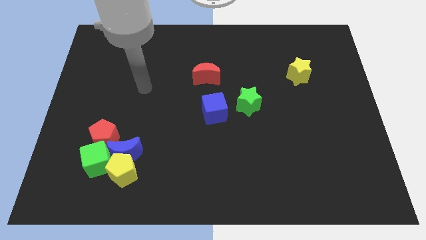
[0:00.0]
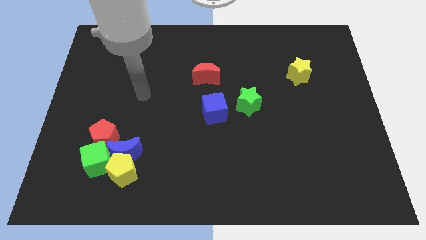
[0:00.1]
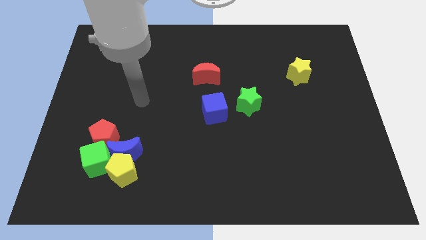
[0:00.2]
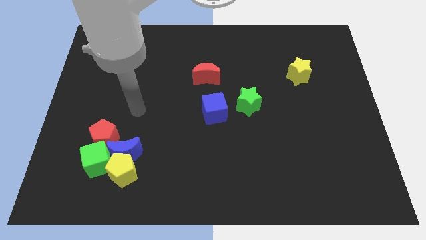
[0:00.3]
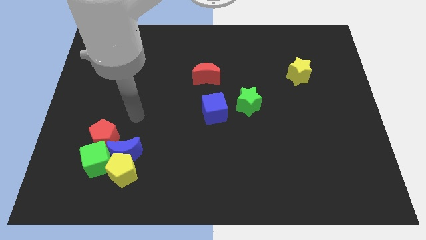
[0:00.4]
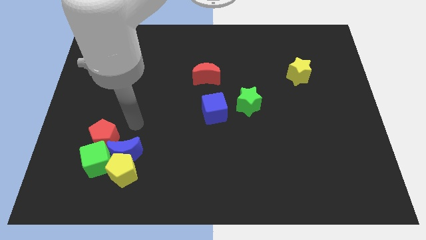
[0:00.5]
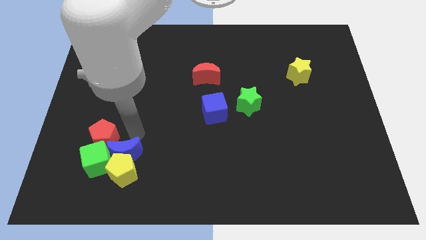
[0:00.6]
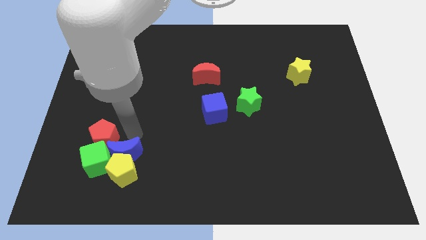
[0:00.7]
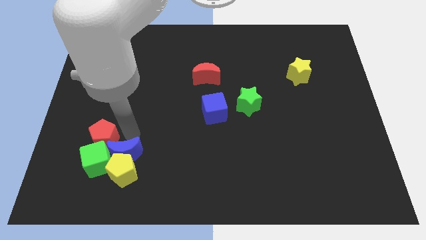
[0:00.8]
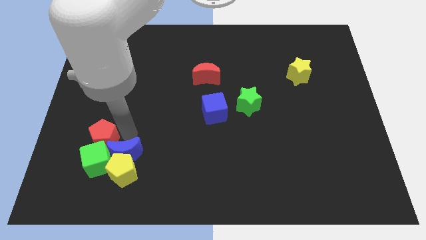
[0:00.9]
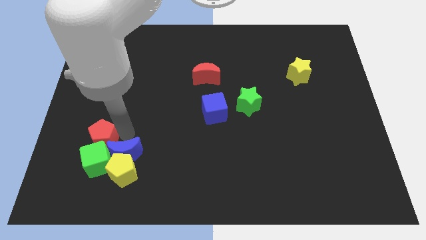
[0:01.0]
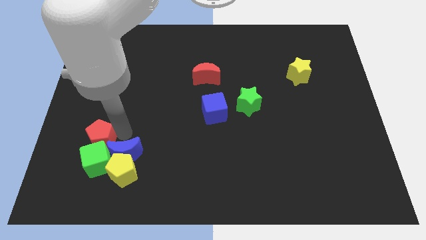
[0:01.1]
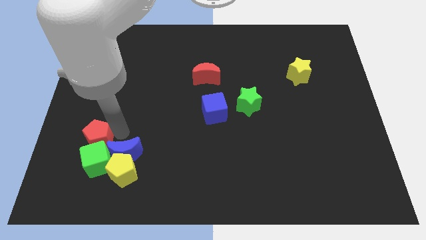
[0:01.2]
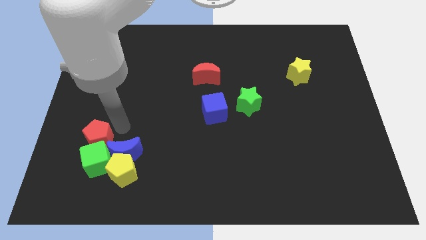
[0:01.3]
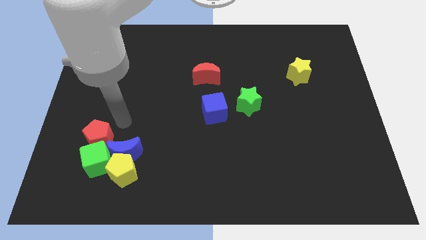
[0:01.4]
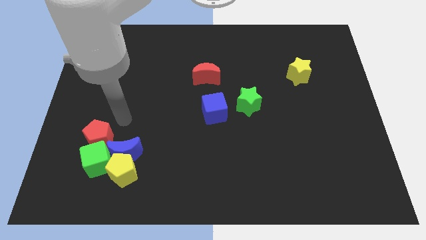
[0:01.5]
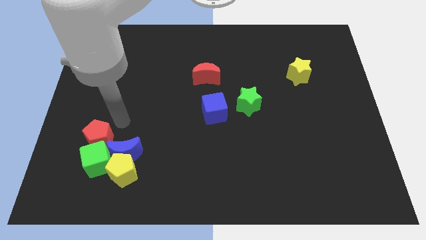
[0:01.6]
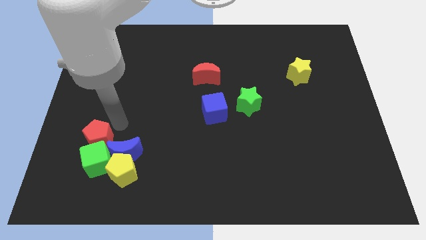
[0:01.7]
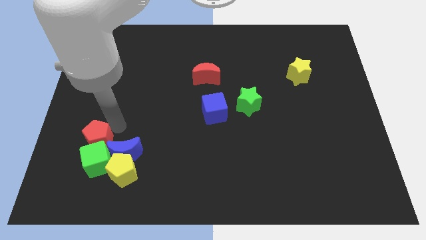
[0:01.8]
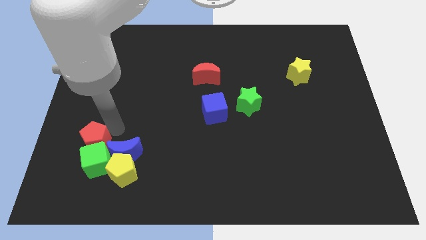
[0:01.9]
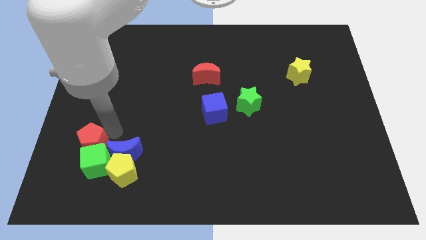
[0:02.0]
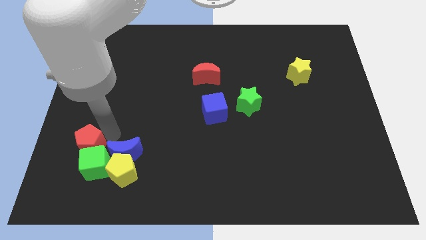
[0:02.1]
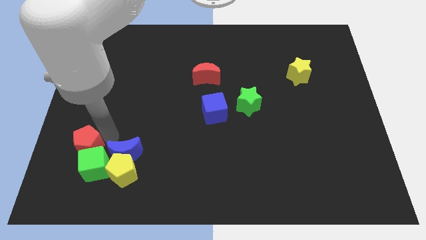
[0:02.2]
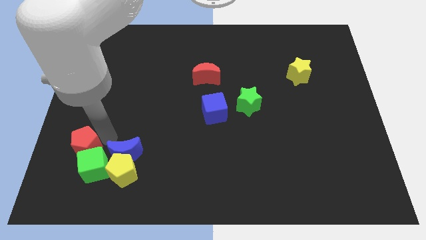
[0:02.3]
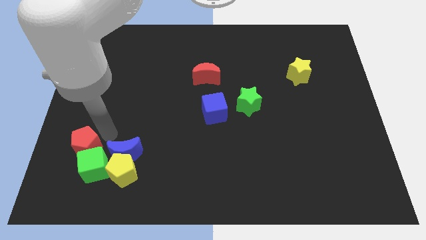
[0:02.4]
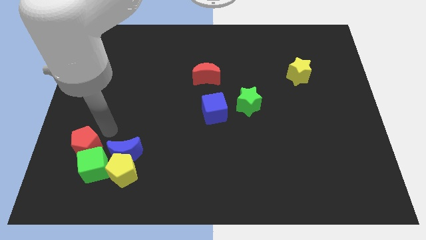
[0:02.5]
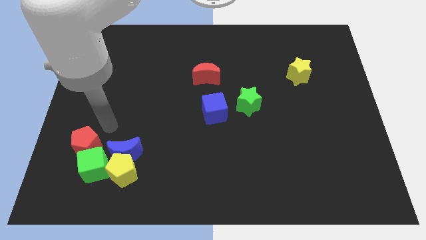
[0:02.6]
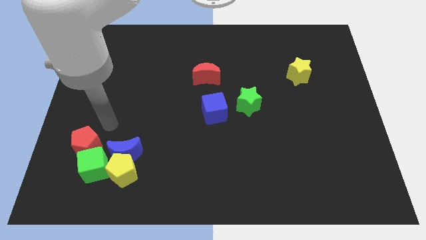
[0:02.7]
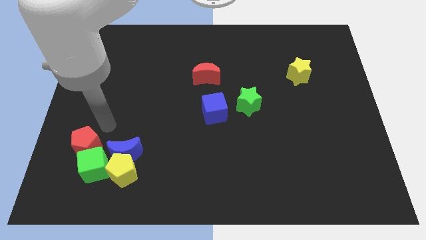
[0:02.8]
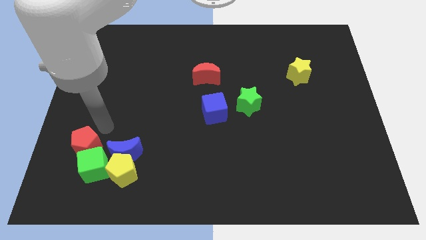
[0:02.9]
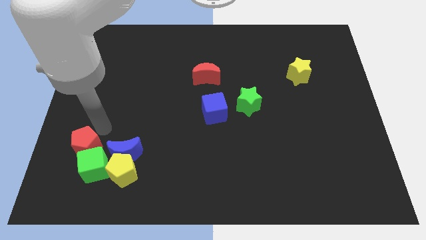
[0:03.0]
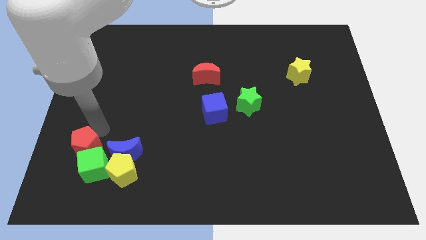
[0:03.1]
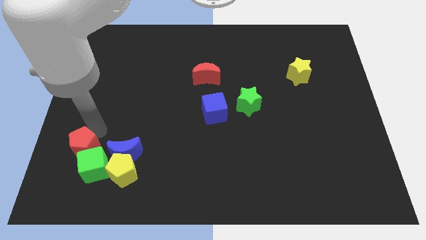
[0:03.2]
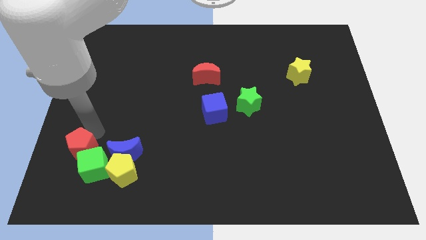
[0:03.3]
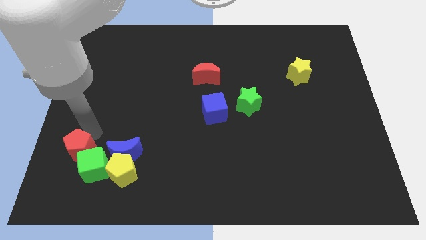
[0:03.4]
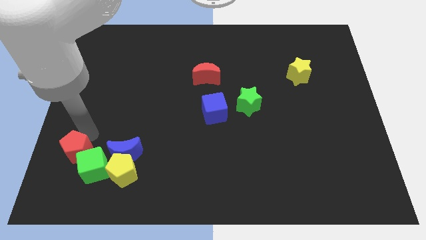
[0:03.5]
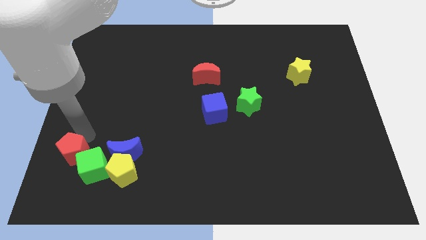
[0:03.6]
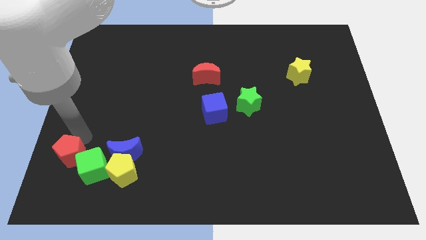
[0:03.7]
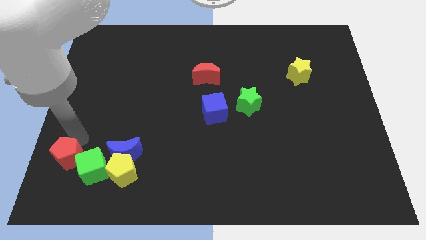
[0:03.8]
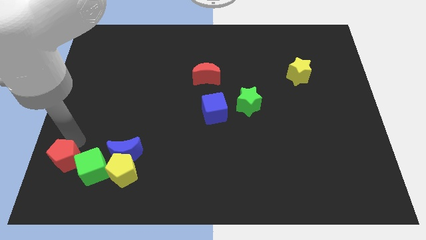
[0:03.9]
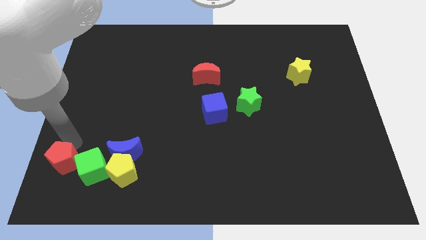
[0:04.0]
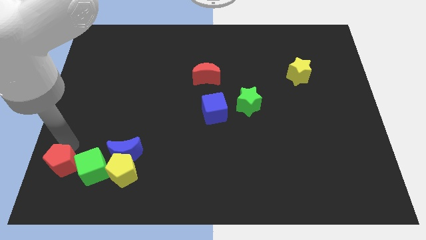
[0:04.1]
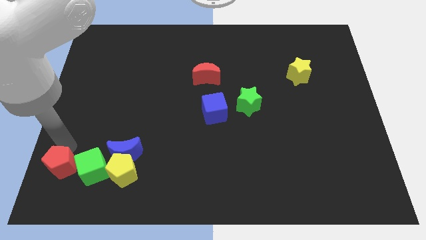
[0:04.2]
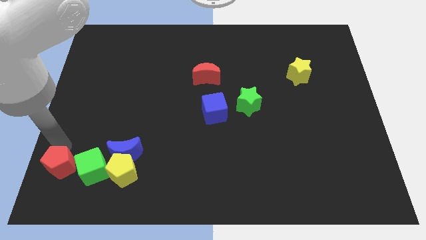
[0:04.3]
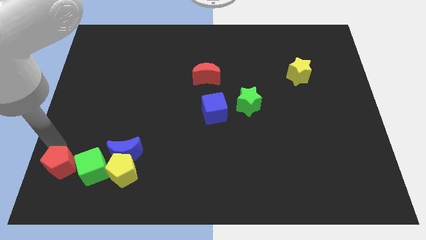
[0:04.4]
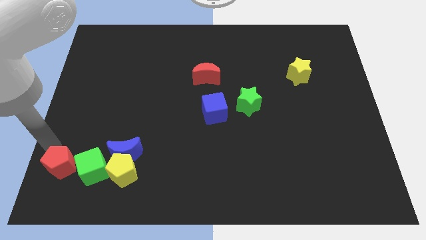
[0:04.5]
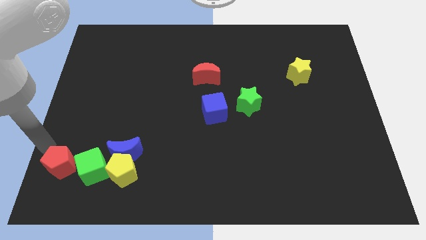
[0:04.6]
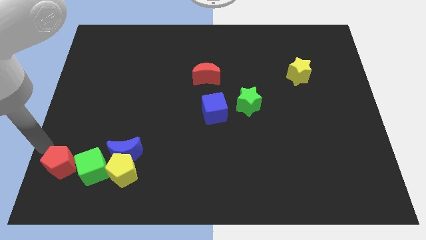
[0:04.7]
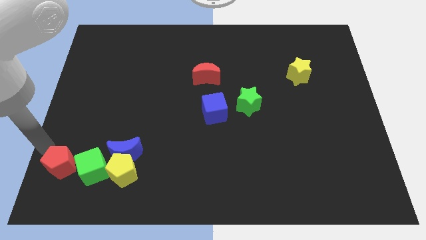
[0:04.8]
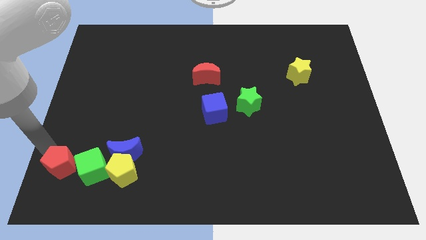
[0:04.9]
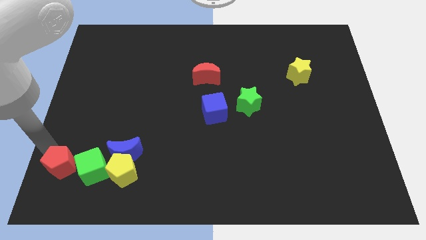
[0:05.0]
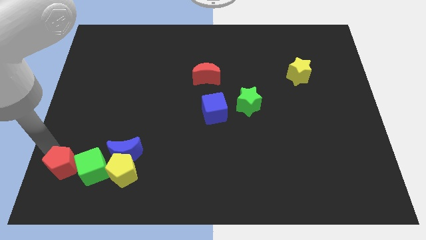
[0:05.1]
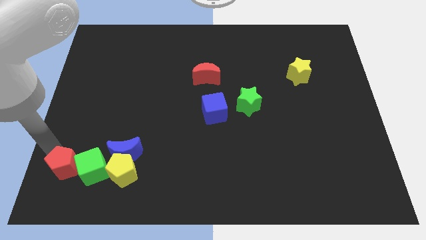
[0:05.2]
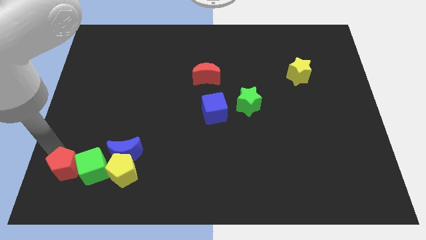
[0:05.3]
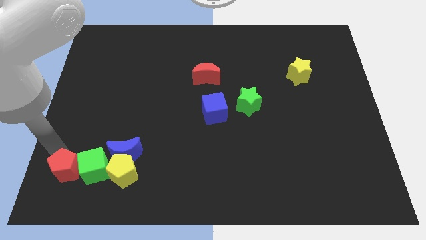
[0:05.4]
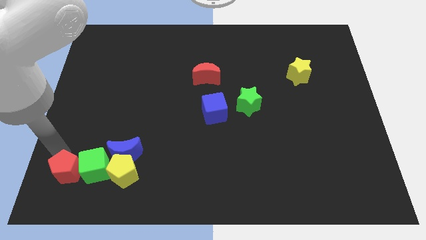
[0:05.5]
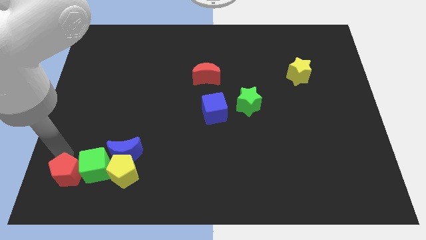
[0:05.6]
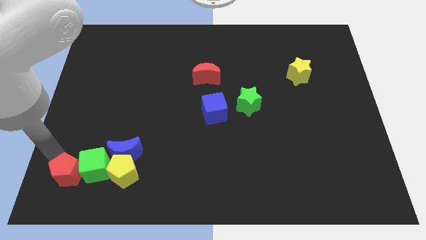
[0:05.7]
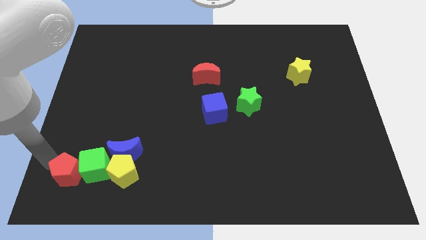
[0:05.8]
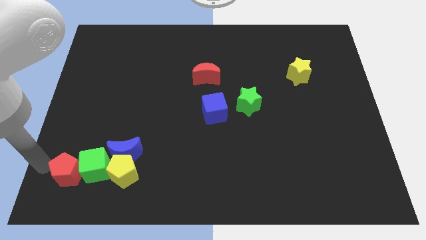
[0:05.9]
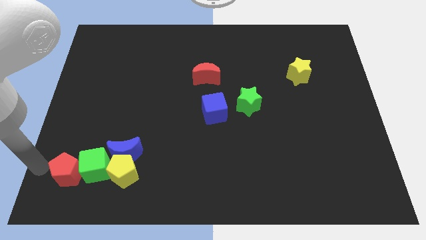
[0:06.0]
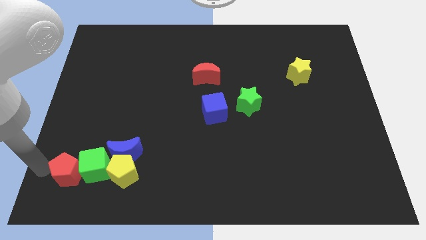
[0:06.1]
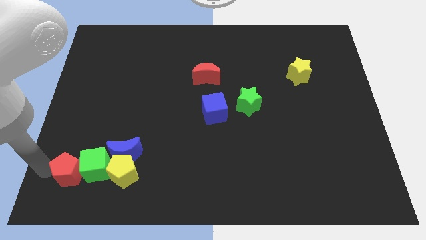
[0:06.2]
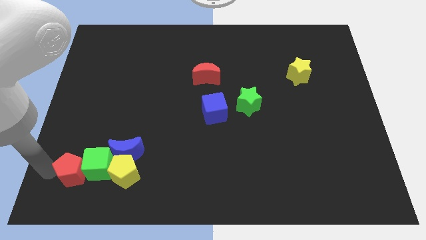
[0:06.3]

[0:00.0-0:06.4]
move the red pentagon diagonally down and to the left of the blue moon
